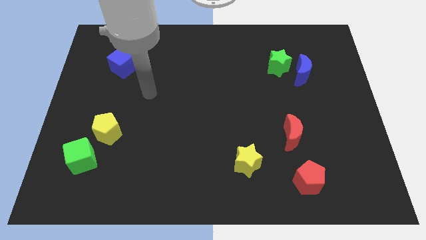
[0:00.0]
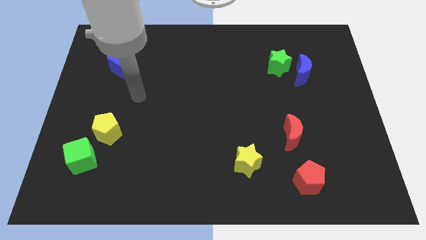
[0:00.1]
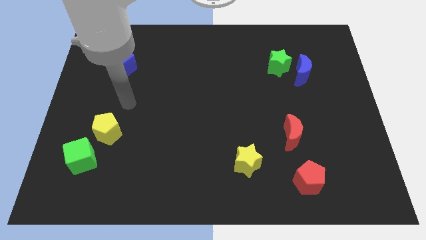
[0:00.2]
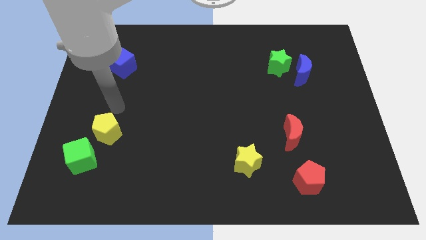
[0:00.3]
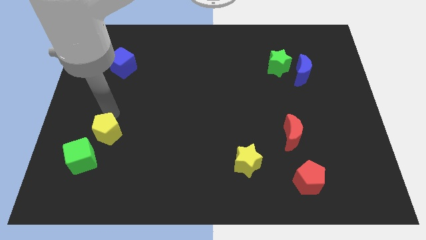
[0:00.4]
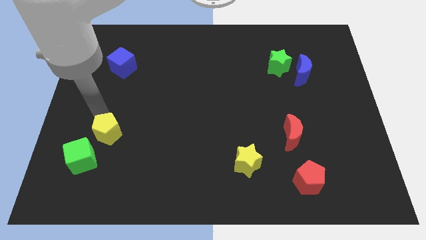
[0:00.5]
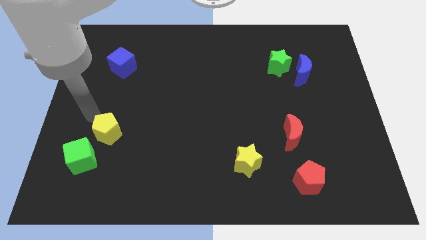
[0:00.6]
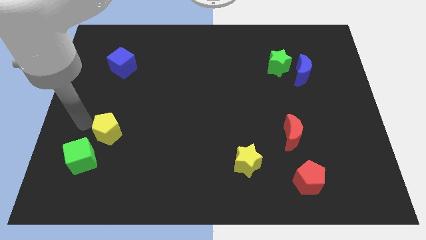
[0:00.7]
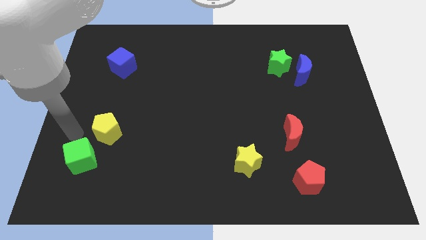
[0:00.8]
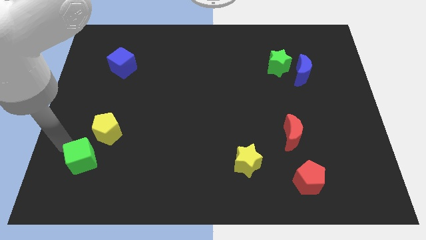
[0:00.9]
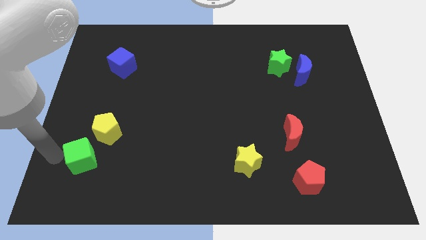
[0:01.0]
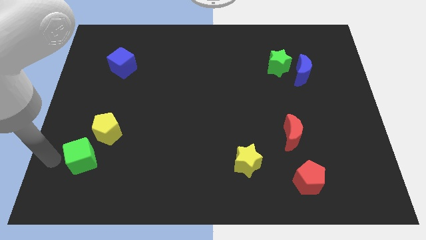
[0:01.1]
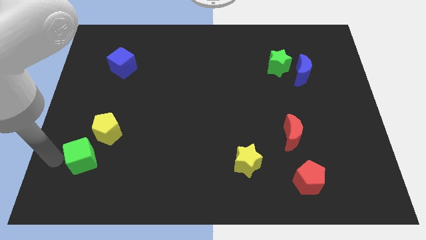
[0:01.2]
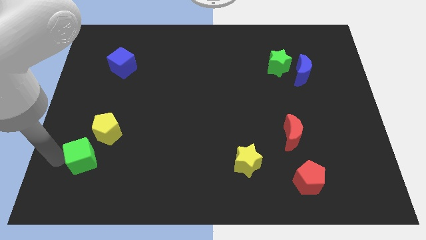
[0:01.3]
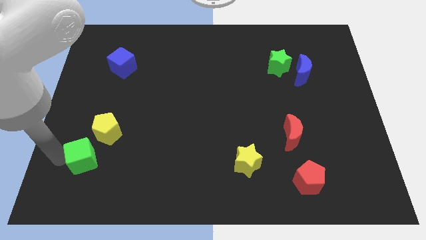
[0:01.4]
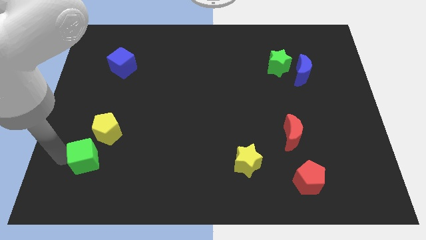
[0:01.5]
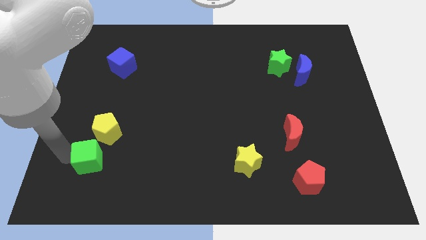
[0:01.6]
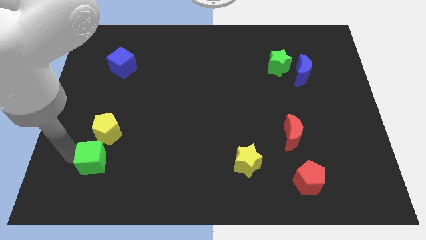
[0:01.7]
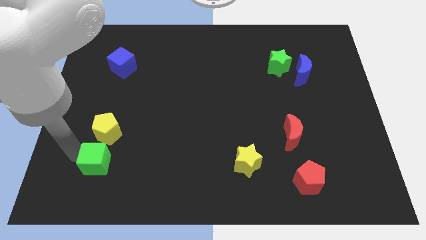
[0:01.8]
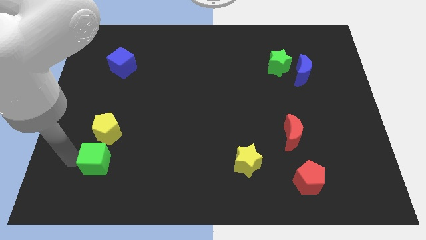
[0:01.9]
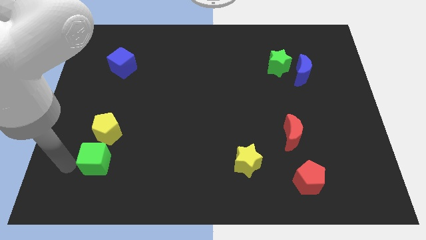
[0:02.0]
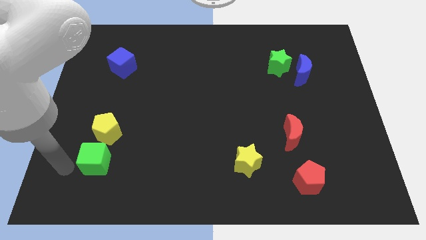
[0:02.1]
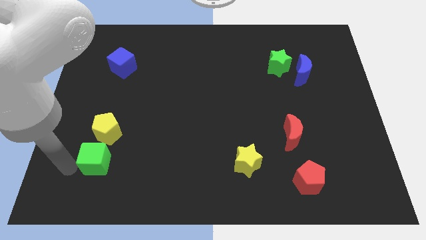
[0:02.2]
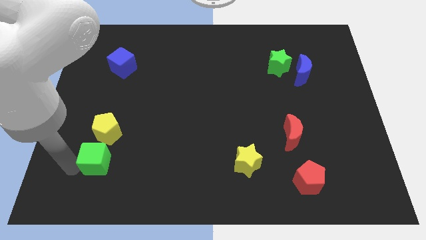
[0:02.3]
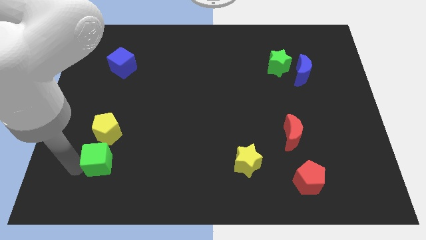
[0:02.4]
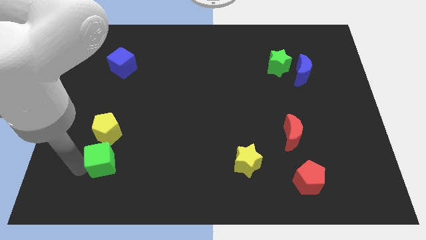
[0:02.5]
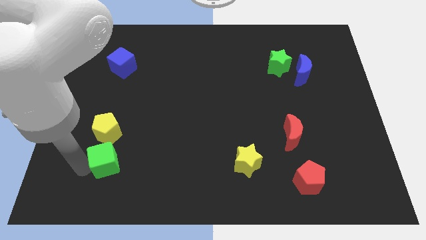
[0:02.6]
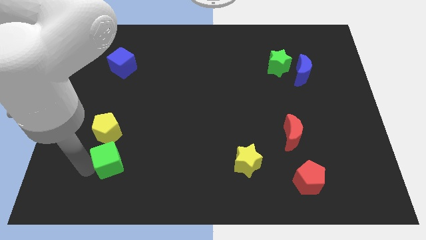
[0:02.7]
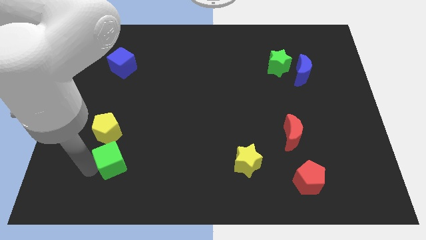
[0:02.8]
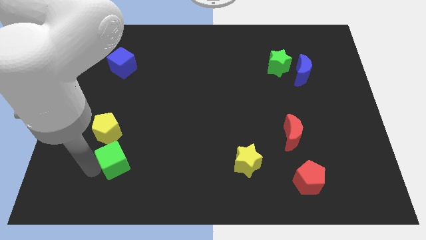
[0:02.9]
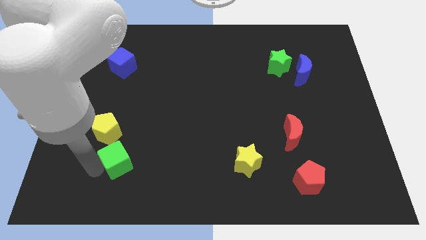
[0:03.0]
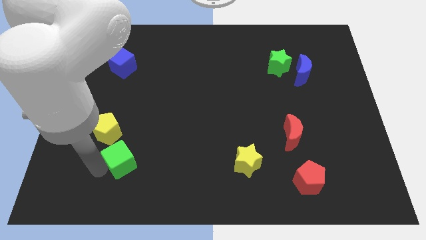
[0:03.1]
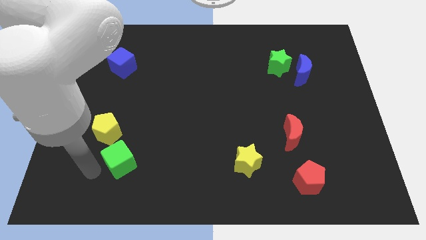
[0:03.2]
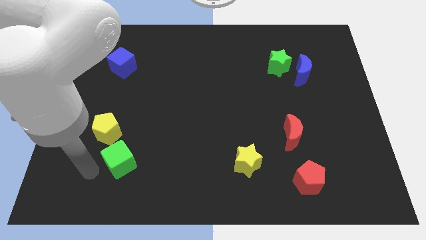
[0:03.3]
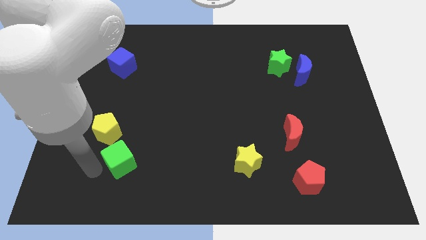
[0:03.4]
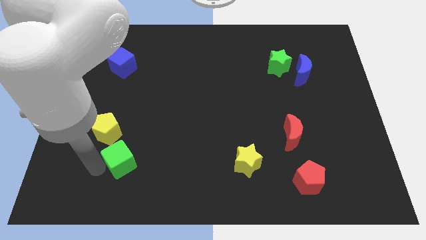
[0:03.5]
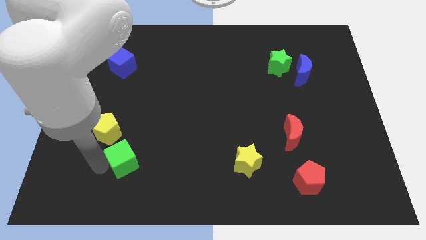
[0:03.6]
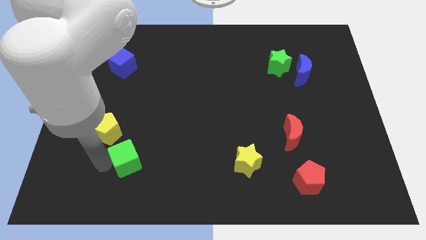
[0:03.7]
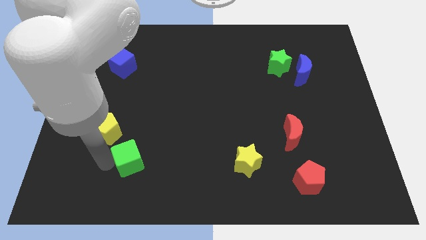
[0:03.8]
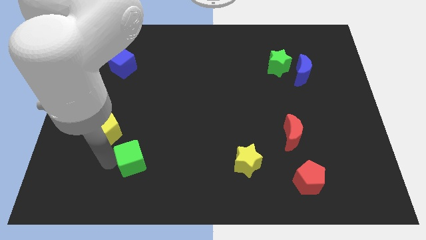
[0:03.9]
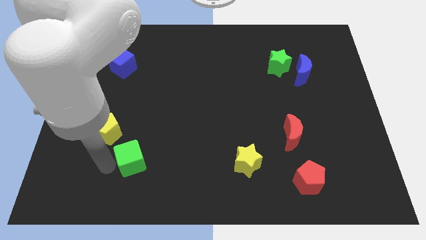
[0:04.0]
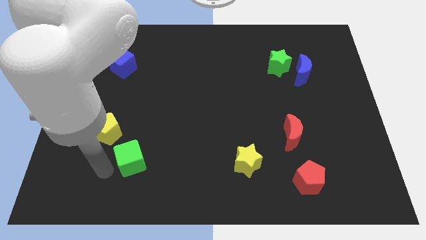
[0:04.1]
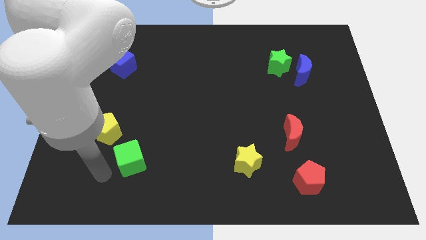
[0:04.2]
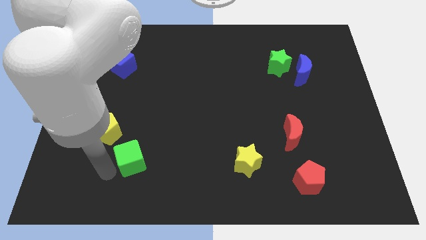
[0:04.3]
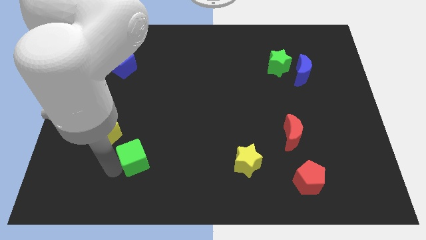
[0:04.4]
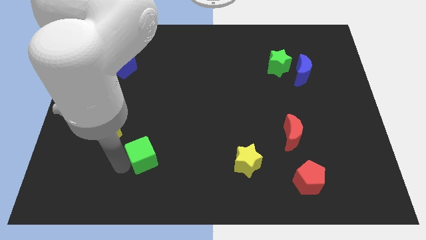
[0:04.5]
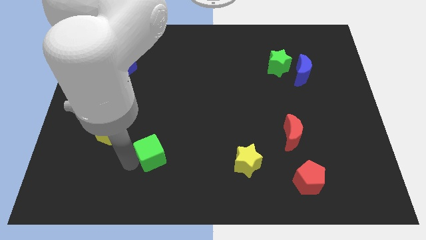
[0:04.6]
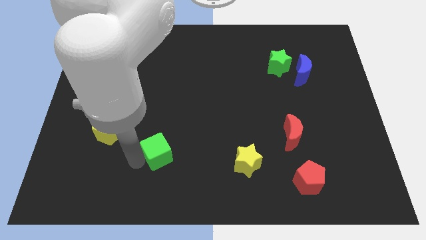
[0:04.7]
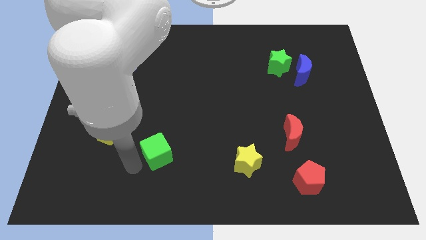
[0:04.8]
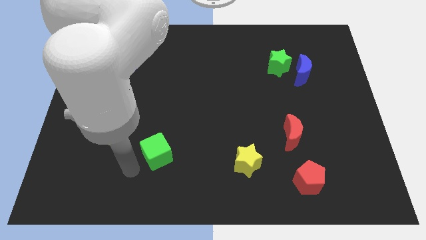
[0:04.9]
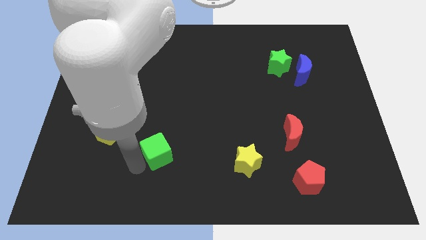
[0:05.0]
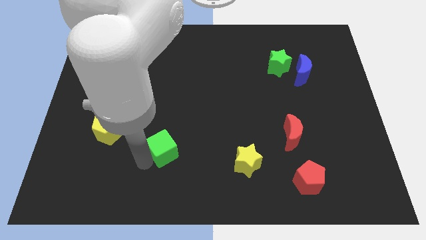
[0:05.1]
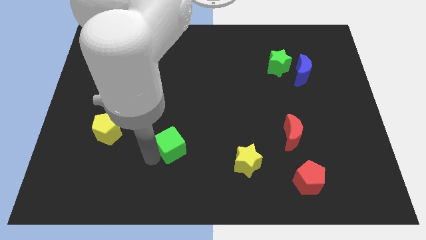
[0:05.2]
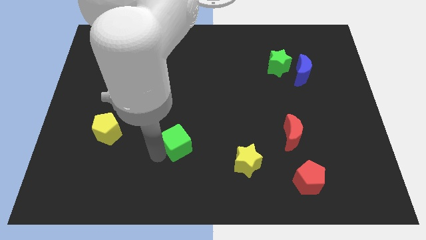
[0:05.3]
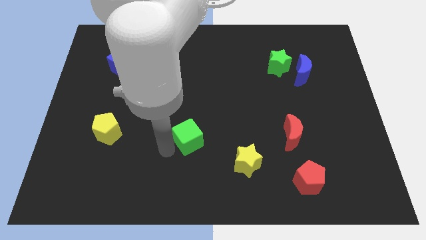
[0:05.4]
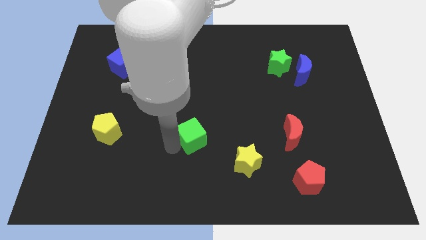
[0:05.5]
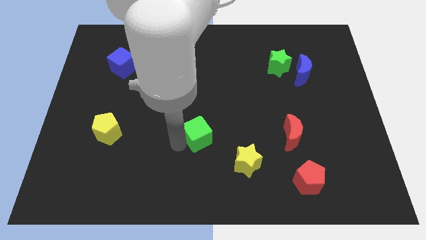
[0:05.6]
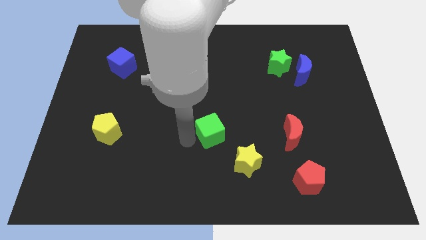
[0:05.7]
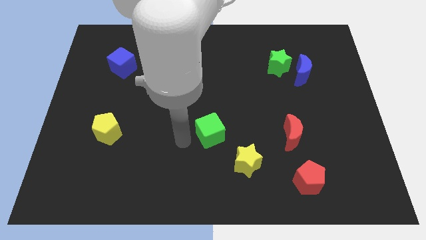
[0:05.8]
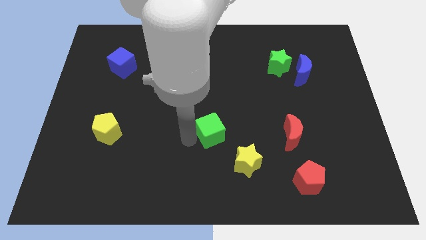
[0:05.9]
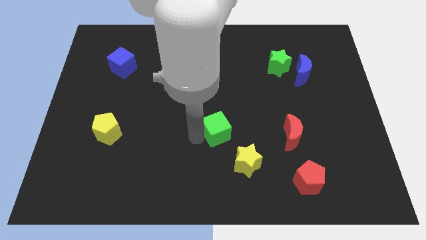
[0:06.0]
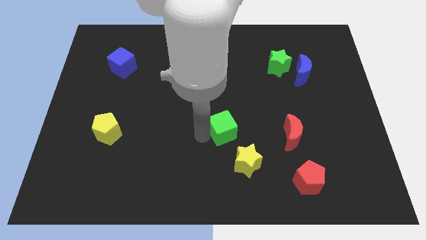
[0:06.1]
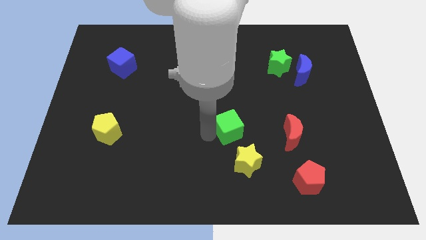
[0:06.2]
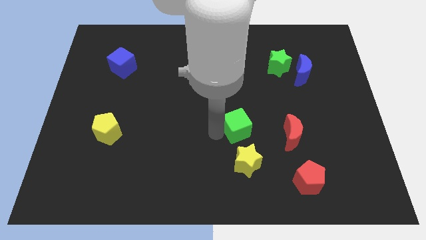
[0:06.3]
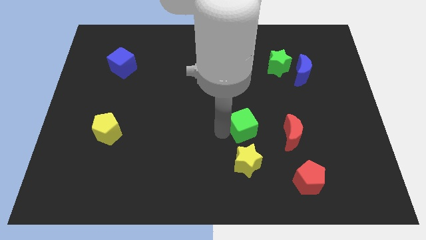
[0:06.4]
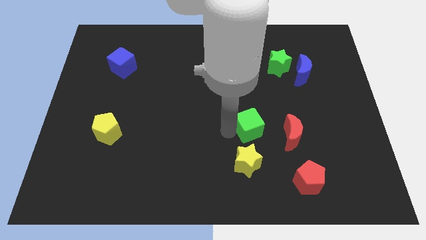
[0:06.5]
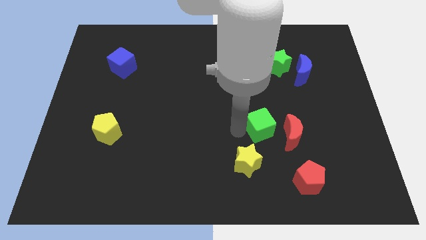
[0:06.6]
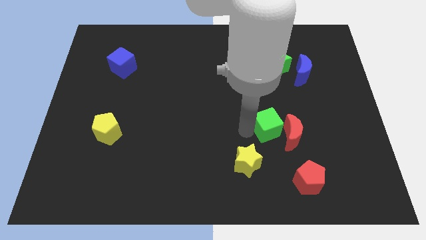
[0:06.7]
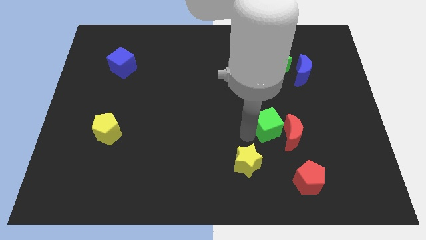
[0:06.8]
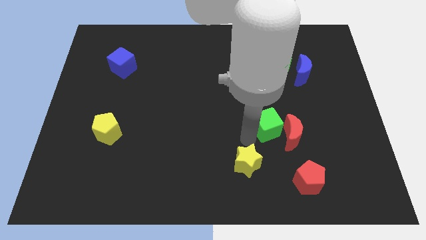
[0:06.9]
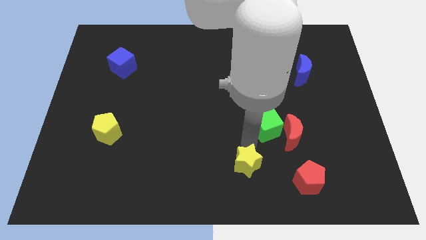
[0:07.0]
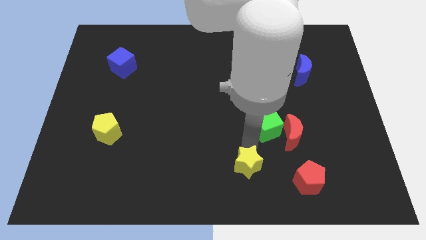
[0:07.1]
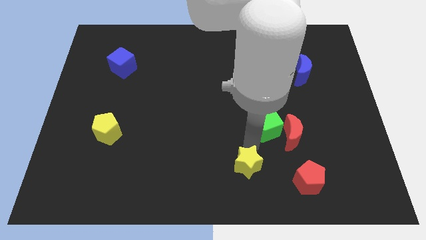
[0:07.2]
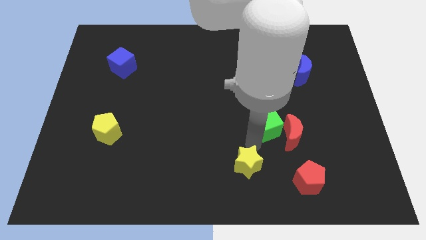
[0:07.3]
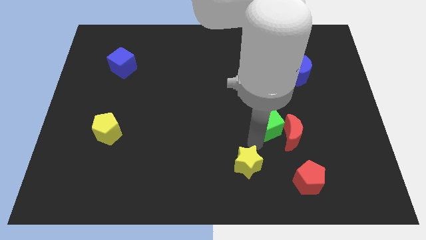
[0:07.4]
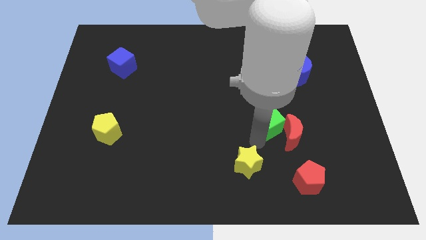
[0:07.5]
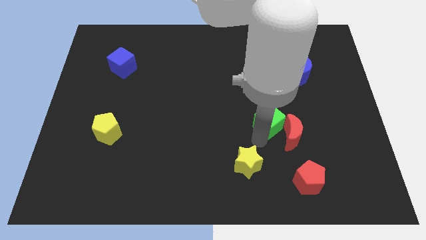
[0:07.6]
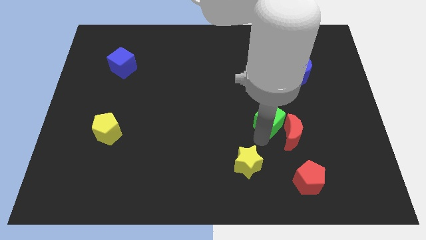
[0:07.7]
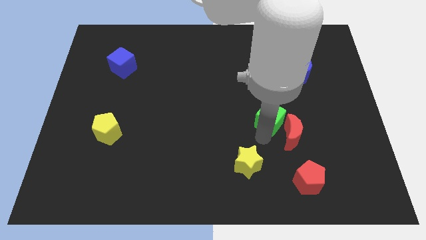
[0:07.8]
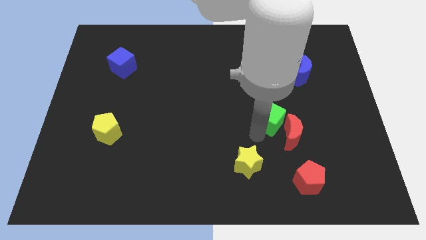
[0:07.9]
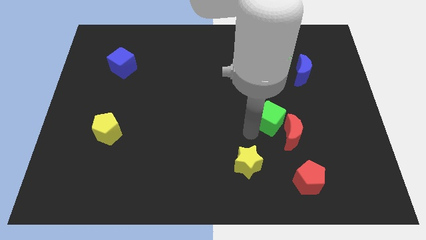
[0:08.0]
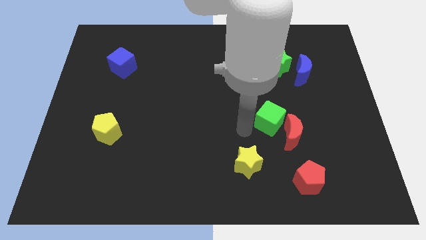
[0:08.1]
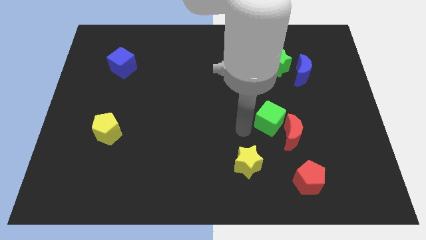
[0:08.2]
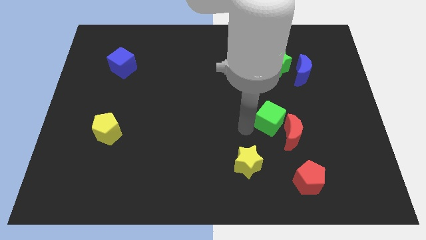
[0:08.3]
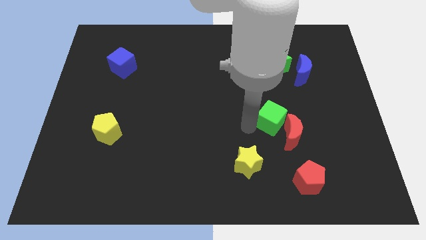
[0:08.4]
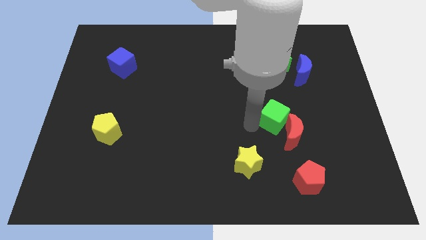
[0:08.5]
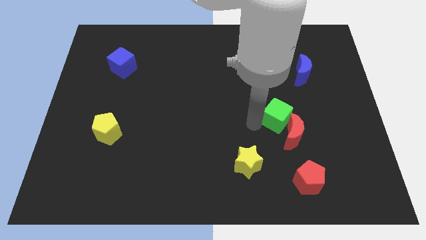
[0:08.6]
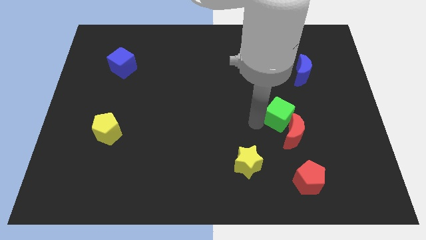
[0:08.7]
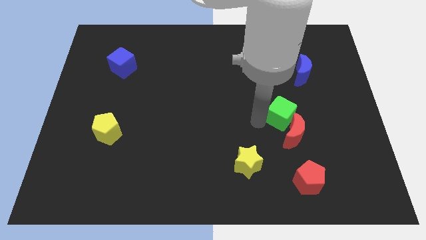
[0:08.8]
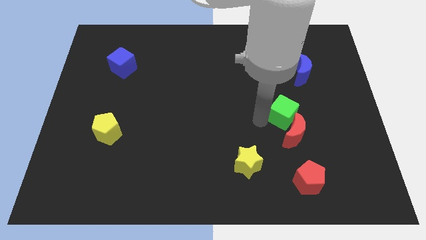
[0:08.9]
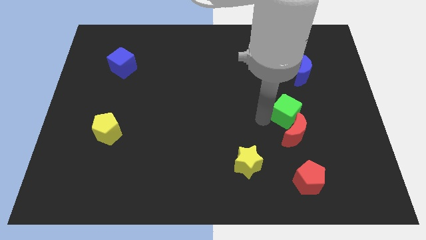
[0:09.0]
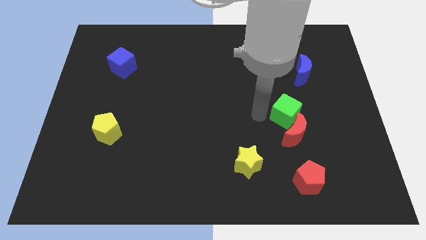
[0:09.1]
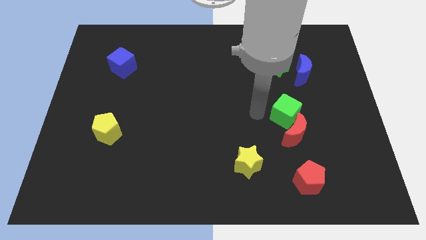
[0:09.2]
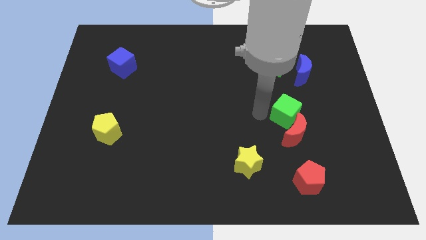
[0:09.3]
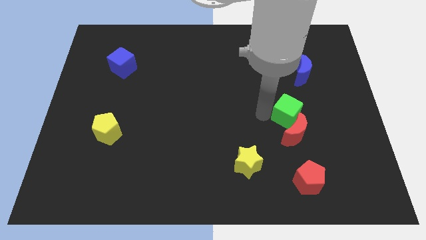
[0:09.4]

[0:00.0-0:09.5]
move the green cube to the top right side of the red moon
